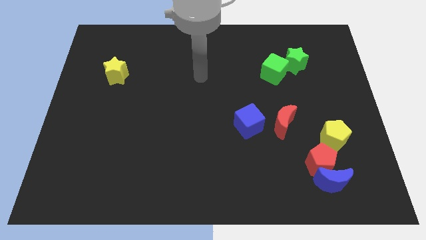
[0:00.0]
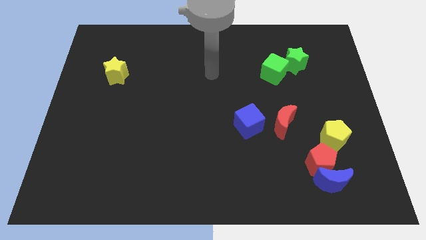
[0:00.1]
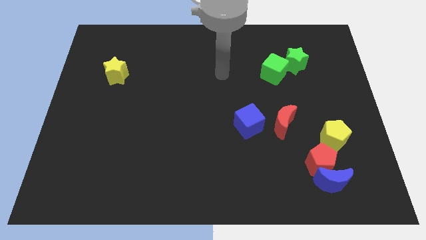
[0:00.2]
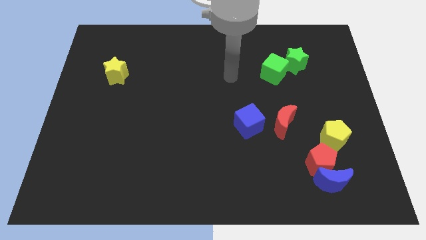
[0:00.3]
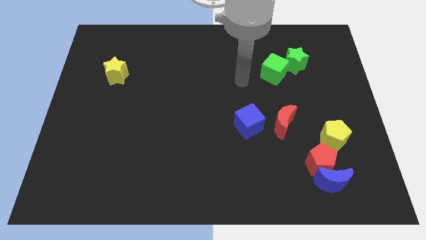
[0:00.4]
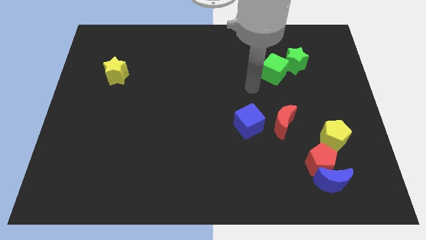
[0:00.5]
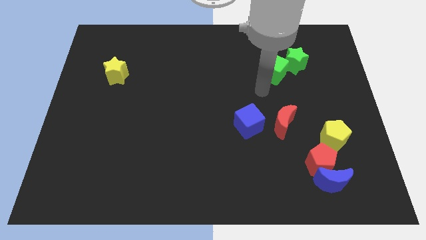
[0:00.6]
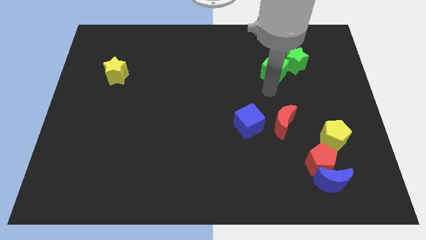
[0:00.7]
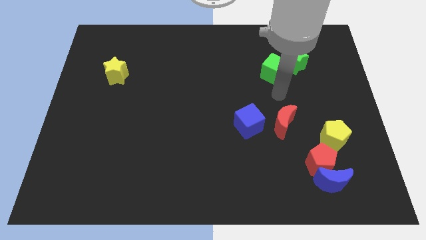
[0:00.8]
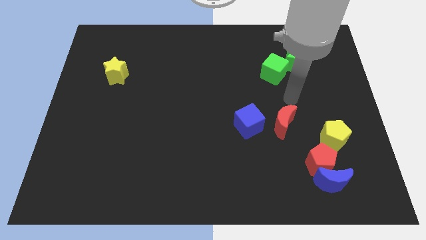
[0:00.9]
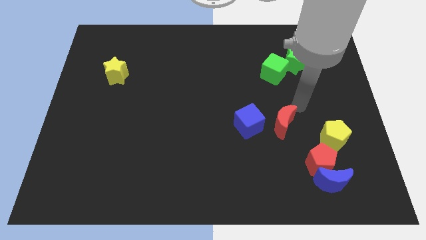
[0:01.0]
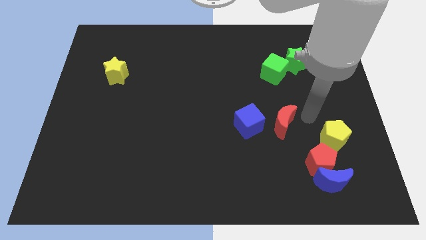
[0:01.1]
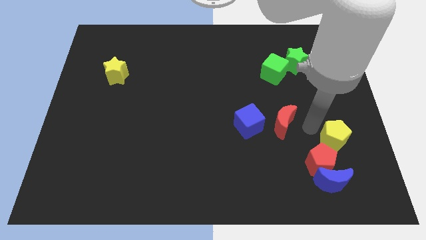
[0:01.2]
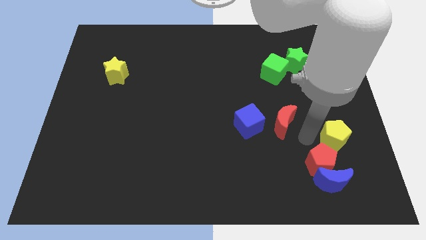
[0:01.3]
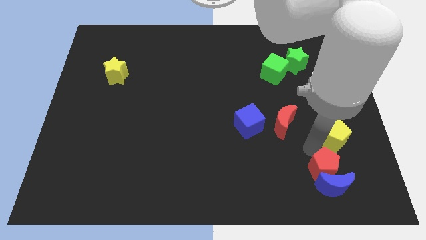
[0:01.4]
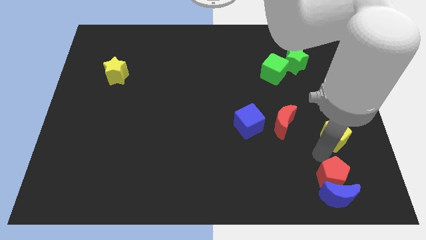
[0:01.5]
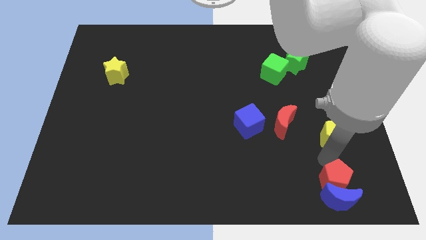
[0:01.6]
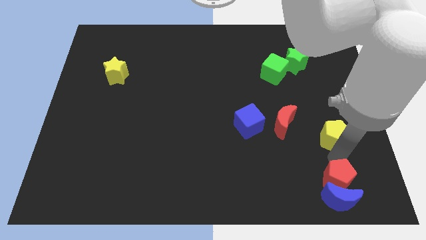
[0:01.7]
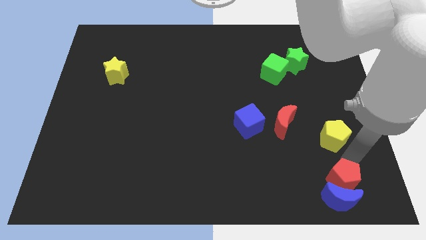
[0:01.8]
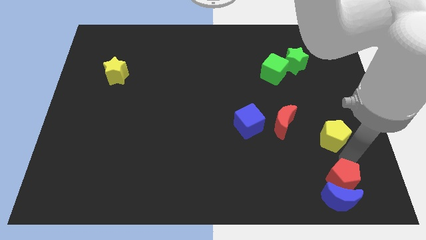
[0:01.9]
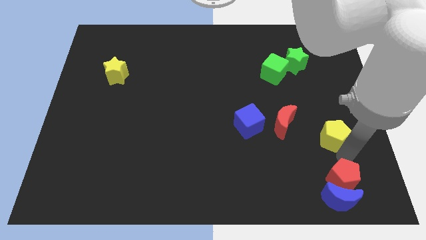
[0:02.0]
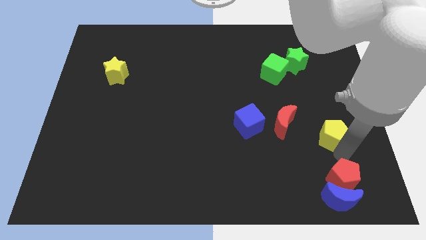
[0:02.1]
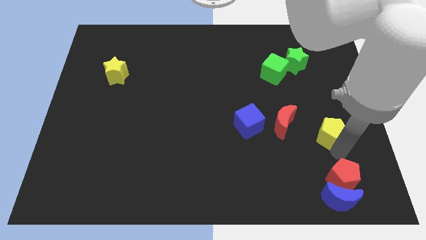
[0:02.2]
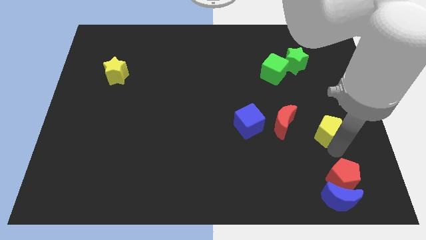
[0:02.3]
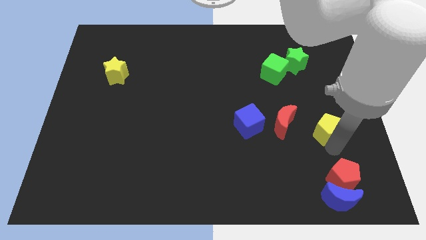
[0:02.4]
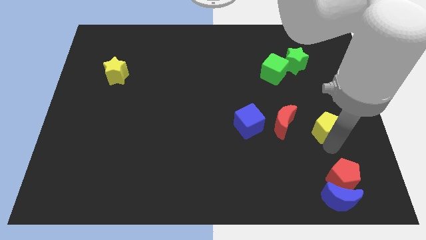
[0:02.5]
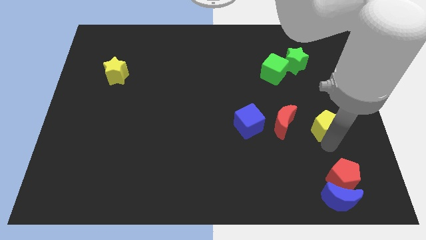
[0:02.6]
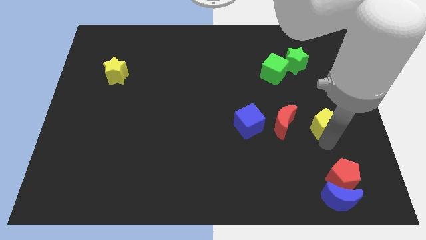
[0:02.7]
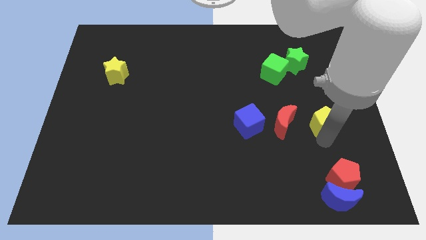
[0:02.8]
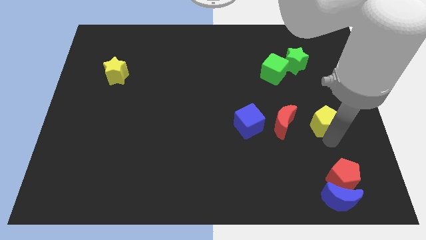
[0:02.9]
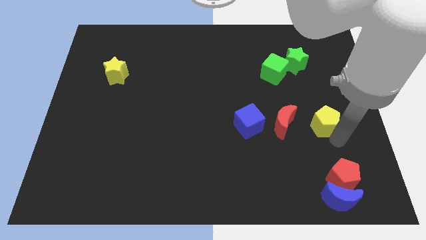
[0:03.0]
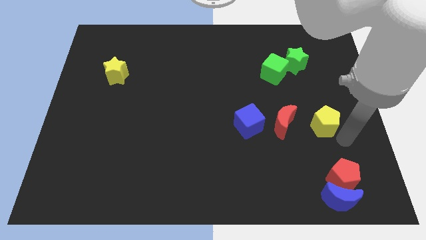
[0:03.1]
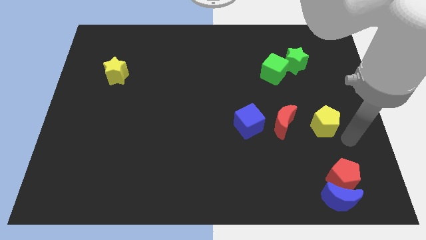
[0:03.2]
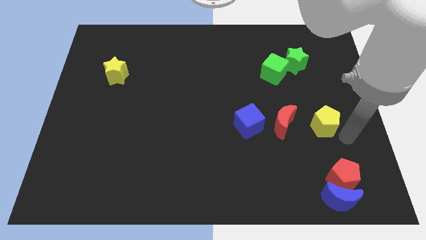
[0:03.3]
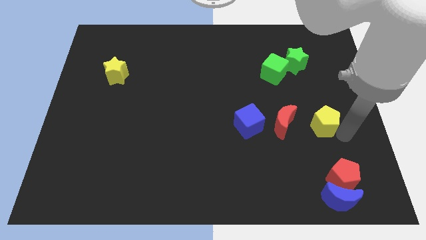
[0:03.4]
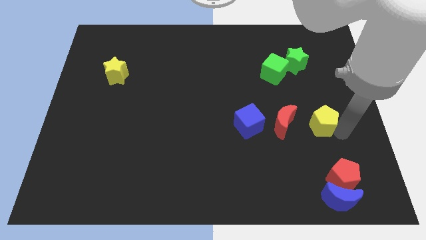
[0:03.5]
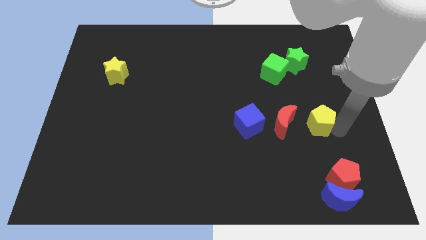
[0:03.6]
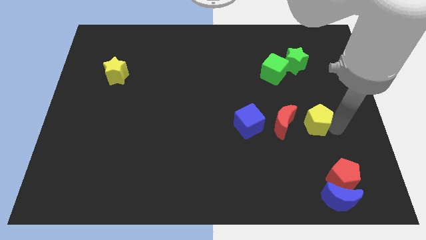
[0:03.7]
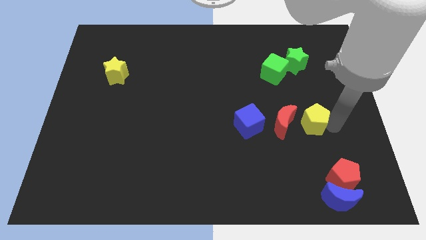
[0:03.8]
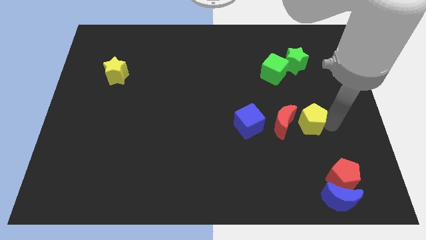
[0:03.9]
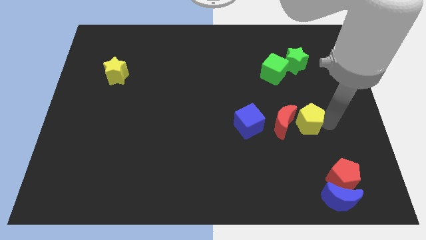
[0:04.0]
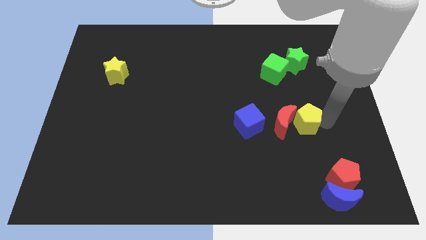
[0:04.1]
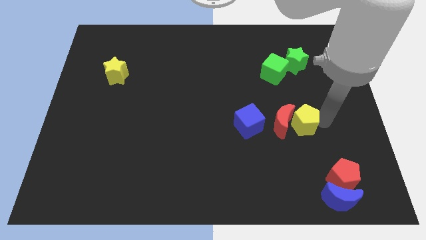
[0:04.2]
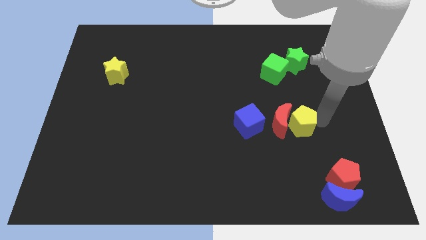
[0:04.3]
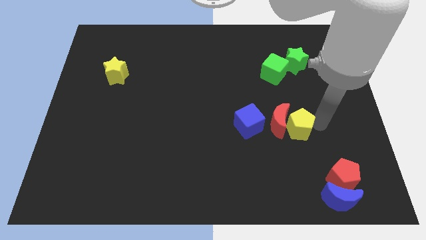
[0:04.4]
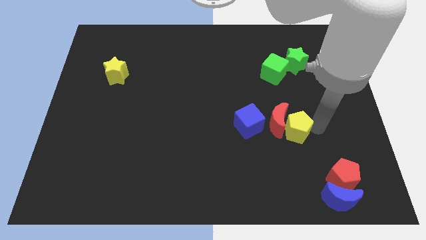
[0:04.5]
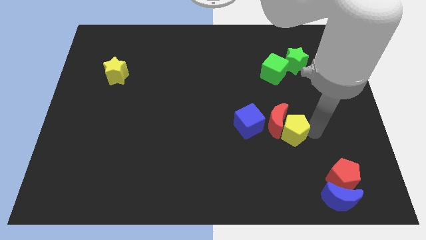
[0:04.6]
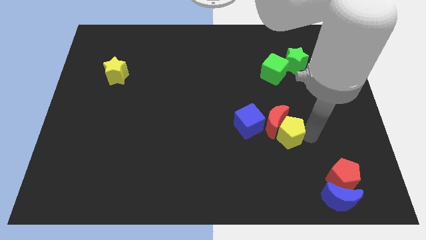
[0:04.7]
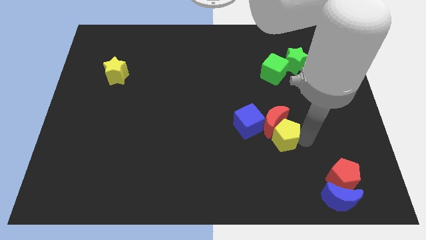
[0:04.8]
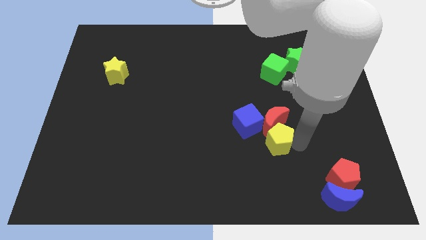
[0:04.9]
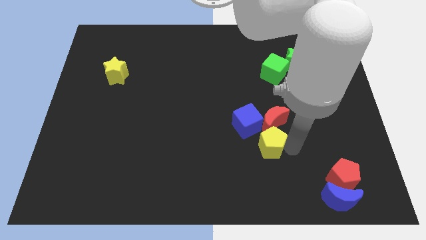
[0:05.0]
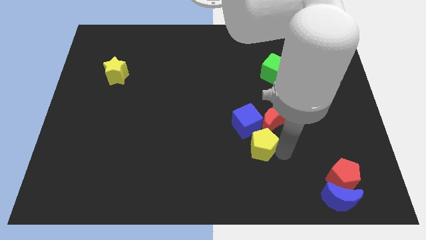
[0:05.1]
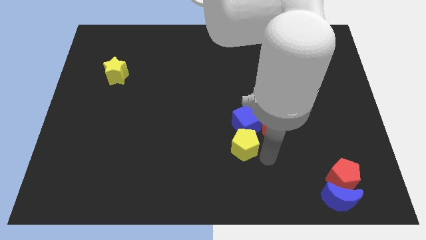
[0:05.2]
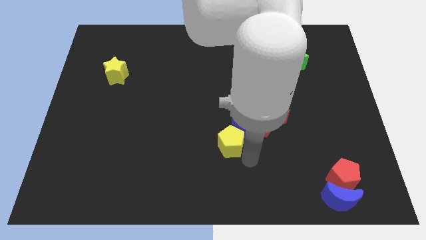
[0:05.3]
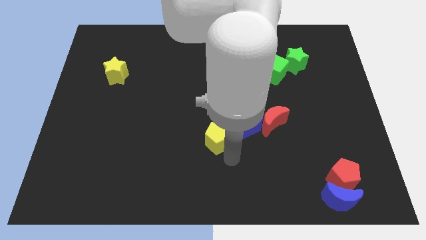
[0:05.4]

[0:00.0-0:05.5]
move the yellow pentagon to the center

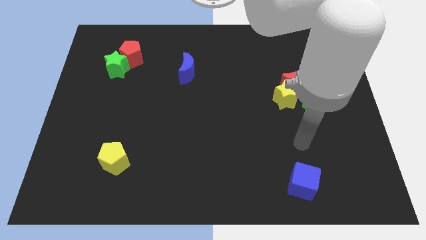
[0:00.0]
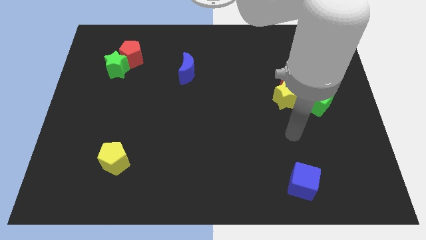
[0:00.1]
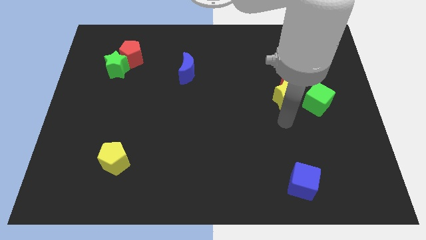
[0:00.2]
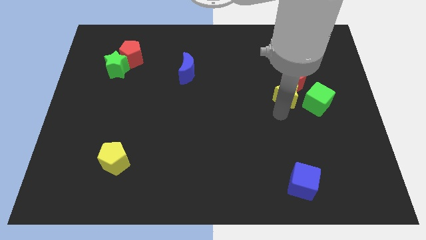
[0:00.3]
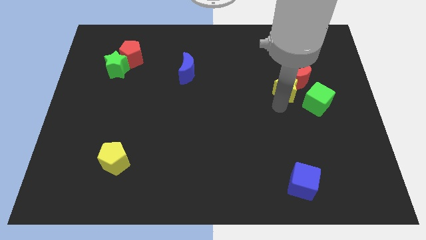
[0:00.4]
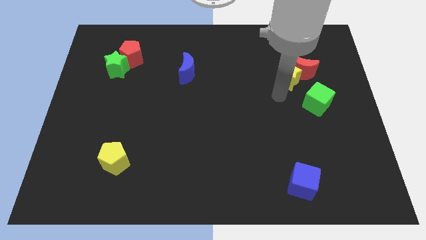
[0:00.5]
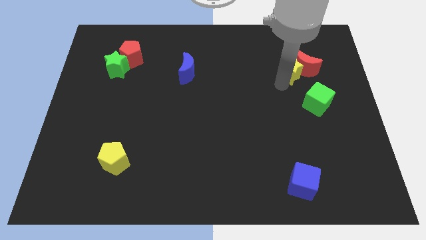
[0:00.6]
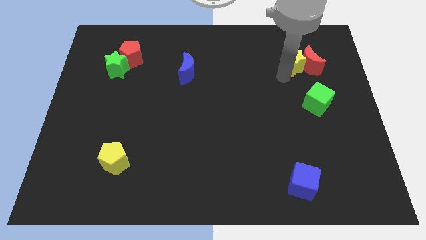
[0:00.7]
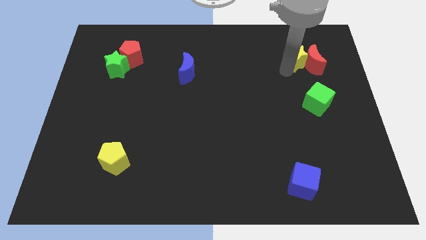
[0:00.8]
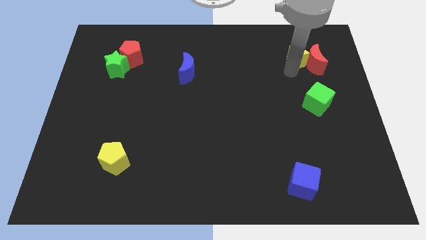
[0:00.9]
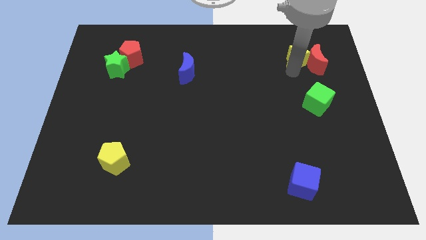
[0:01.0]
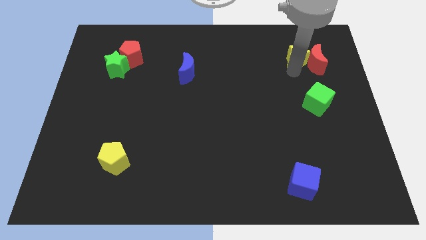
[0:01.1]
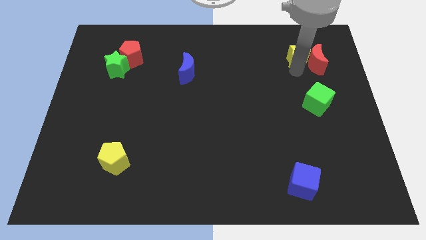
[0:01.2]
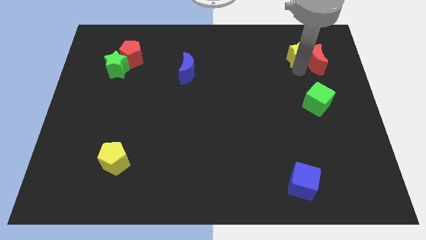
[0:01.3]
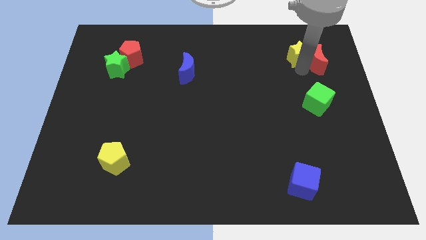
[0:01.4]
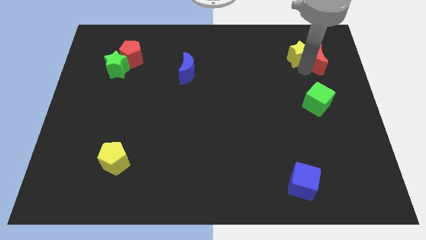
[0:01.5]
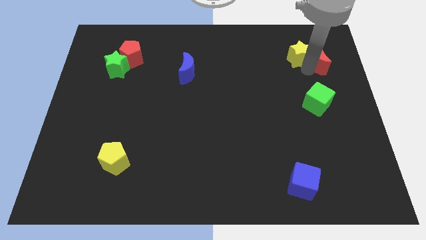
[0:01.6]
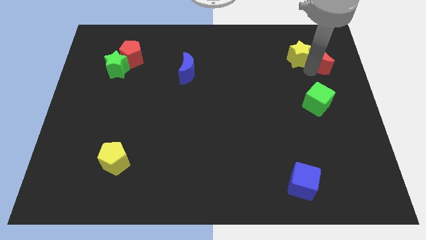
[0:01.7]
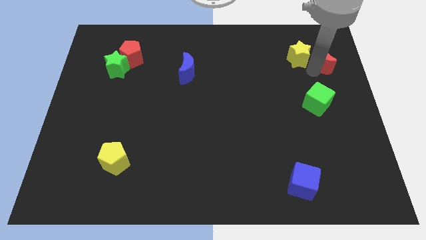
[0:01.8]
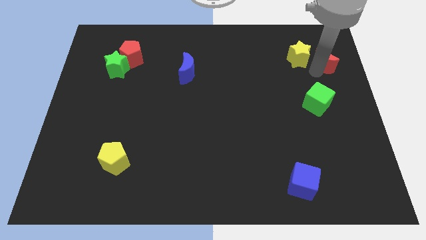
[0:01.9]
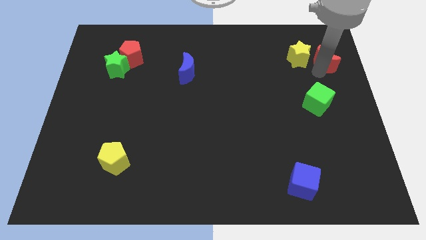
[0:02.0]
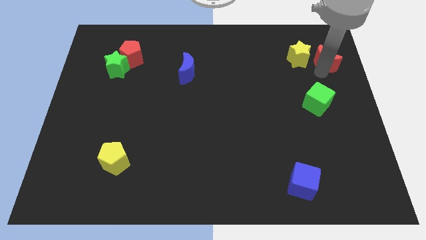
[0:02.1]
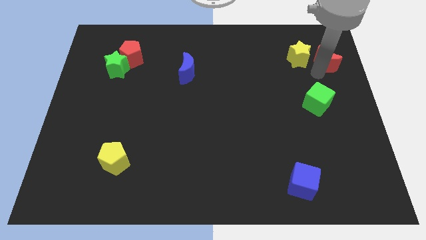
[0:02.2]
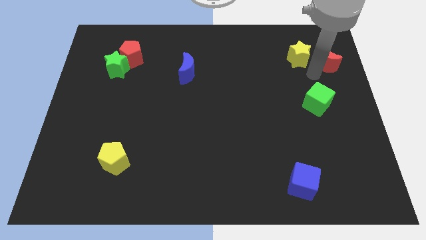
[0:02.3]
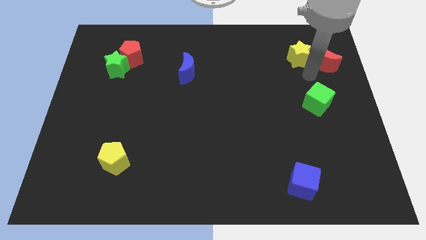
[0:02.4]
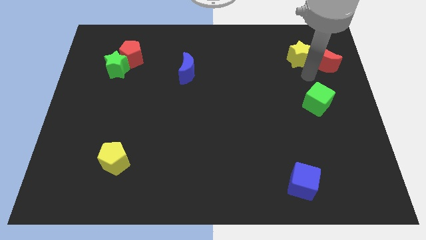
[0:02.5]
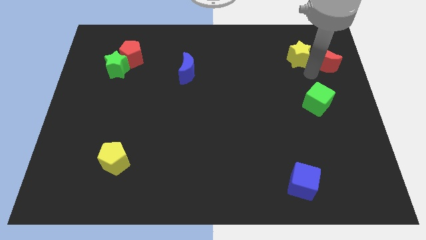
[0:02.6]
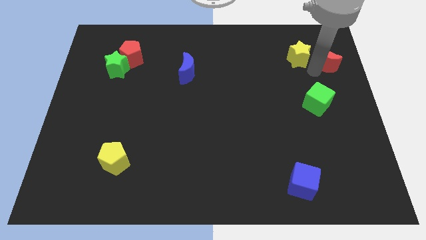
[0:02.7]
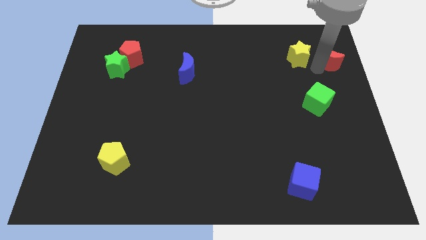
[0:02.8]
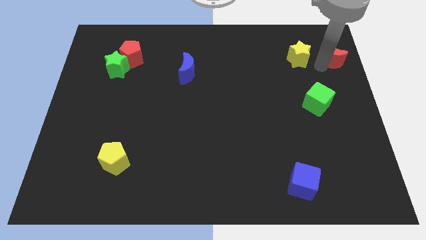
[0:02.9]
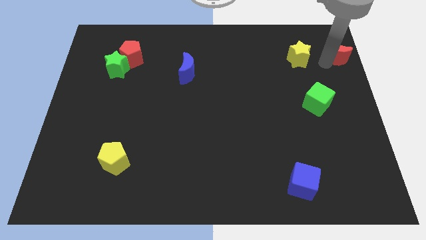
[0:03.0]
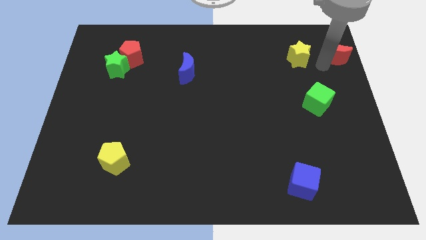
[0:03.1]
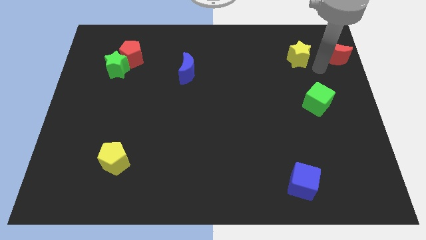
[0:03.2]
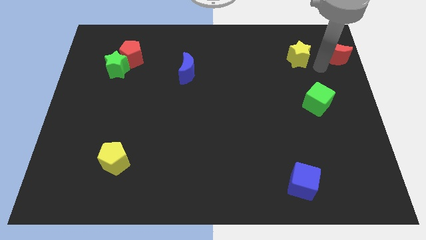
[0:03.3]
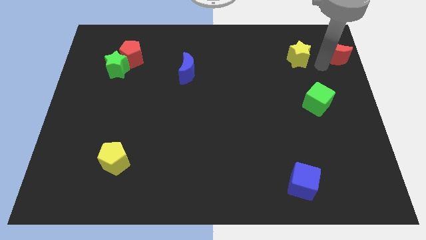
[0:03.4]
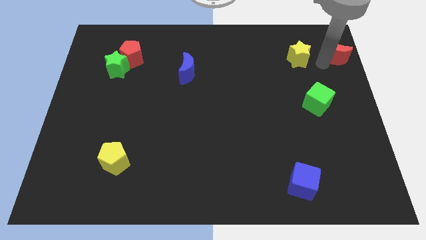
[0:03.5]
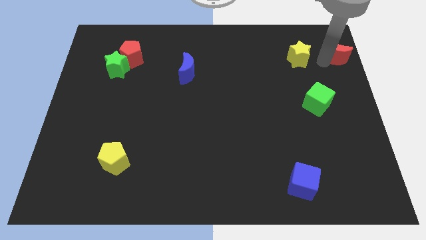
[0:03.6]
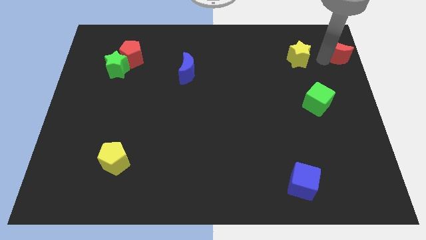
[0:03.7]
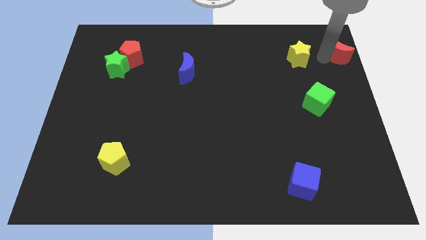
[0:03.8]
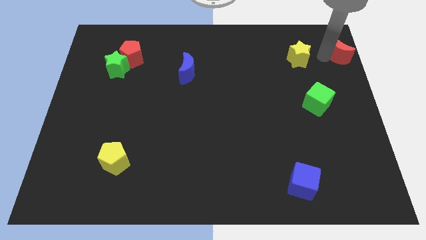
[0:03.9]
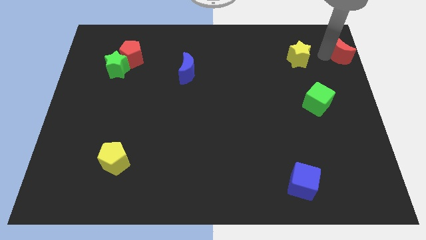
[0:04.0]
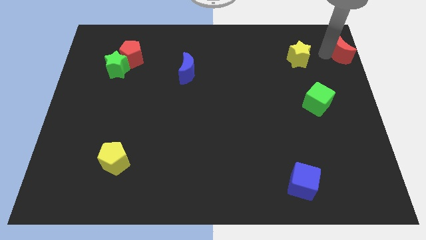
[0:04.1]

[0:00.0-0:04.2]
move the red moon to the top right corner
